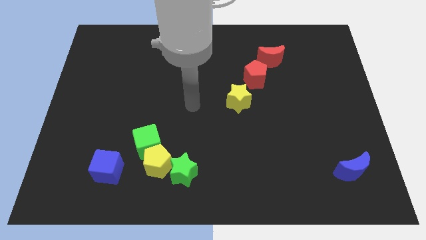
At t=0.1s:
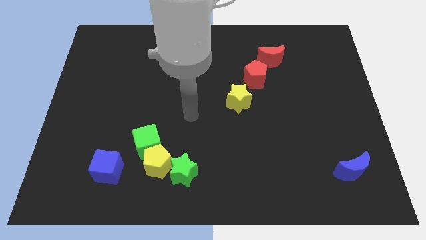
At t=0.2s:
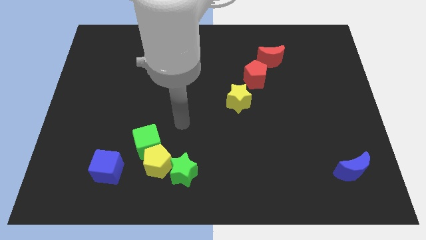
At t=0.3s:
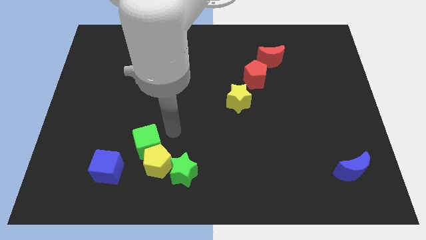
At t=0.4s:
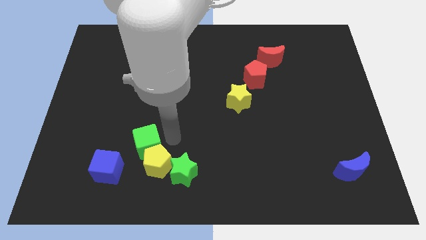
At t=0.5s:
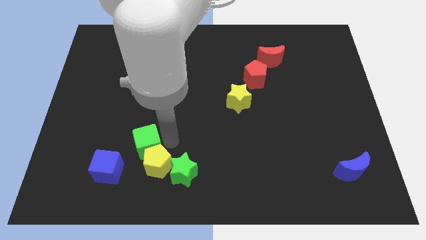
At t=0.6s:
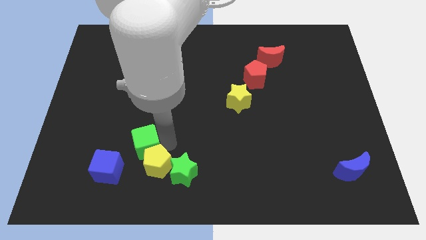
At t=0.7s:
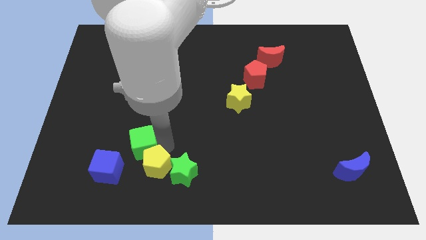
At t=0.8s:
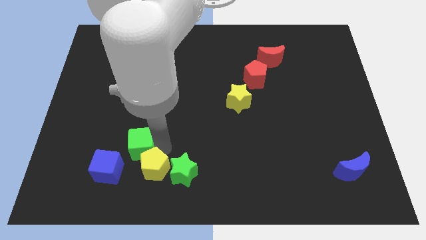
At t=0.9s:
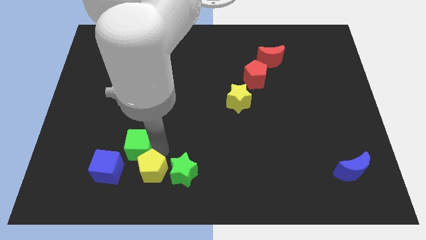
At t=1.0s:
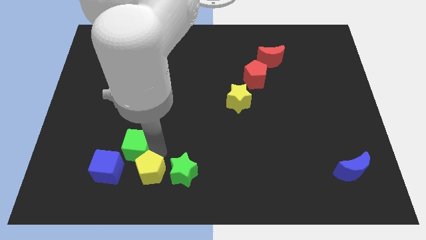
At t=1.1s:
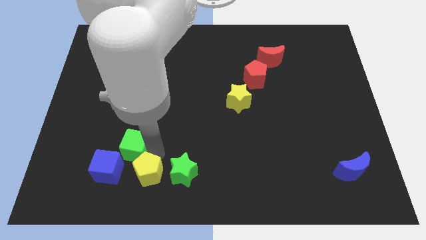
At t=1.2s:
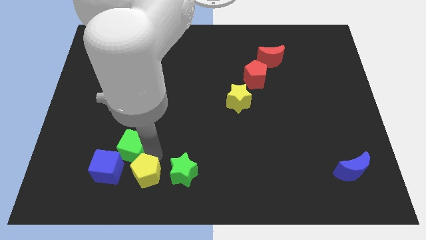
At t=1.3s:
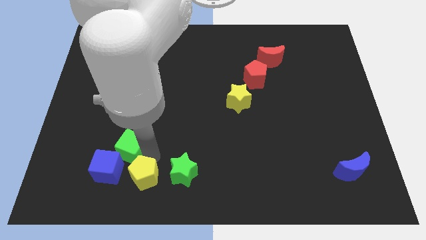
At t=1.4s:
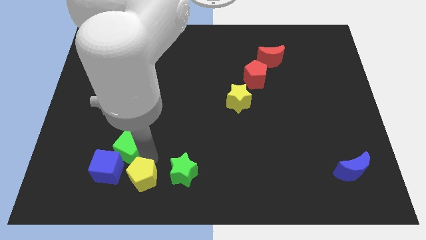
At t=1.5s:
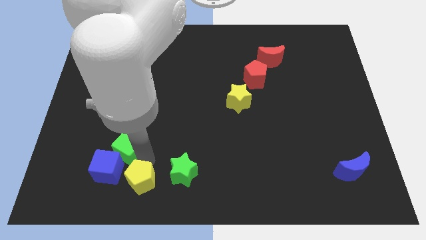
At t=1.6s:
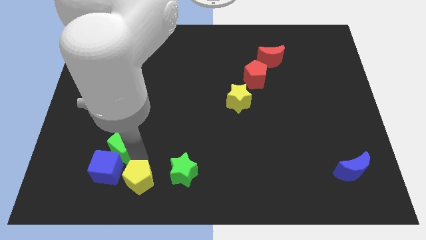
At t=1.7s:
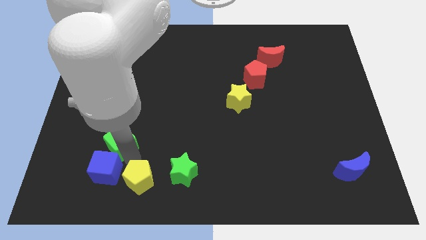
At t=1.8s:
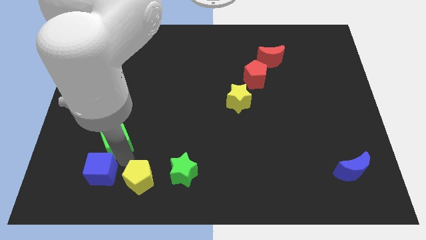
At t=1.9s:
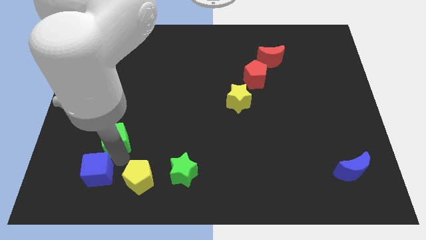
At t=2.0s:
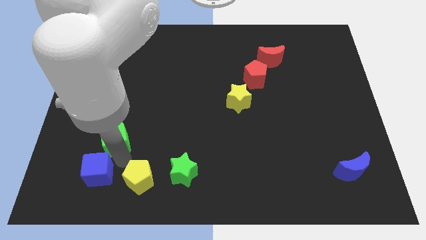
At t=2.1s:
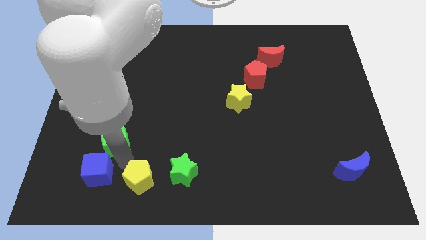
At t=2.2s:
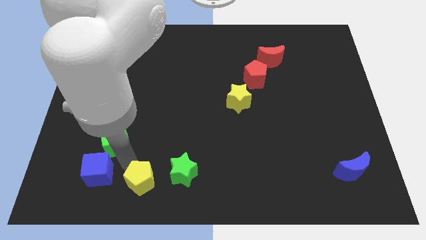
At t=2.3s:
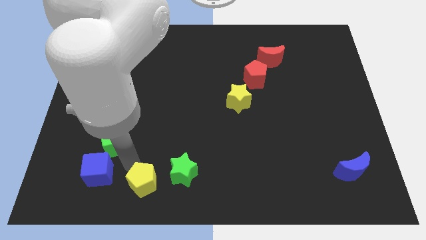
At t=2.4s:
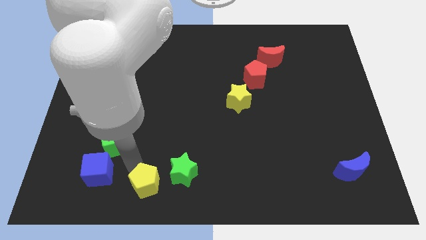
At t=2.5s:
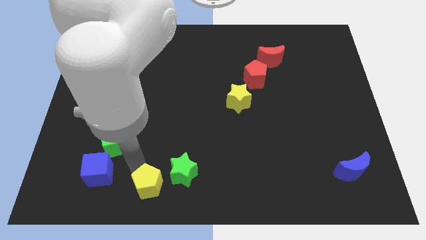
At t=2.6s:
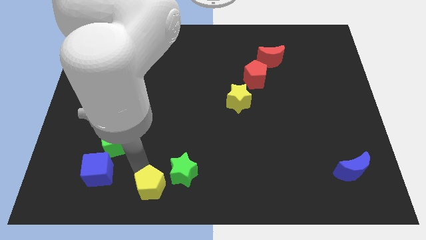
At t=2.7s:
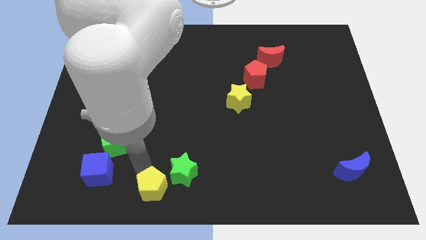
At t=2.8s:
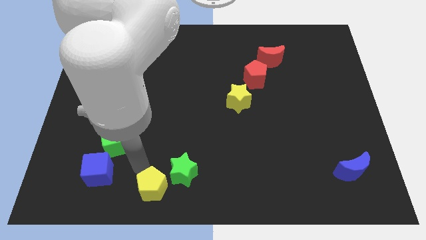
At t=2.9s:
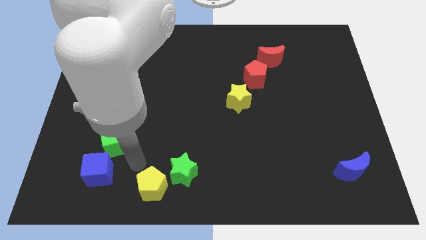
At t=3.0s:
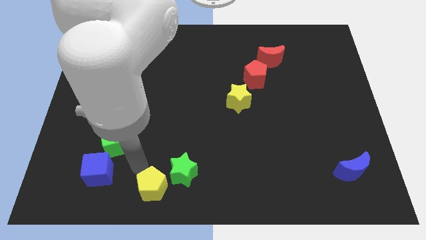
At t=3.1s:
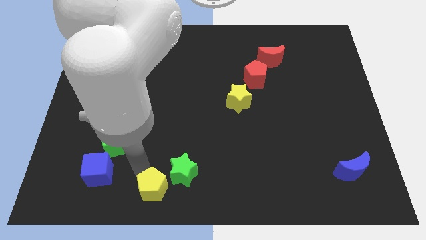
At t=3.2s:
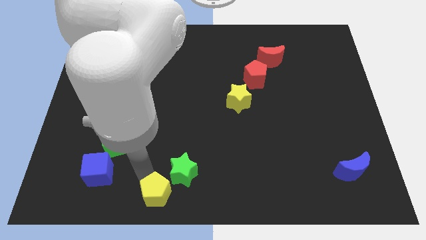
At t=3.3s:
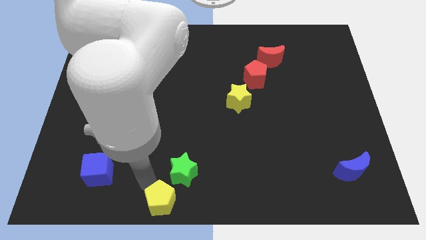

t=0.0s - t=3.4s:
separate the yellow pentagon from the group of blocks

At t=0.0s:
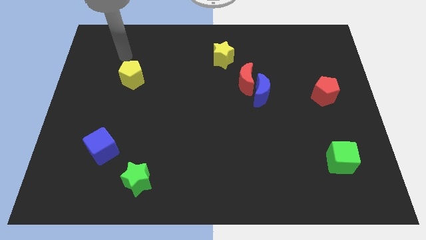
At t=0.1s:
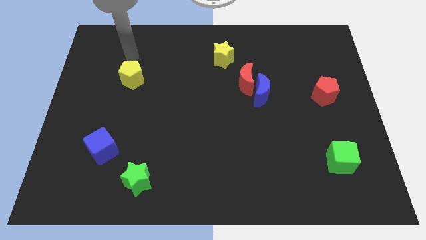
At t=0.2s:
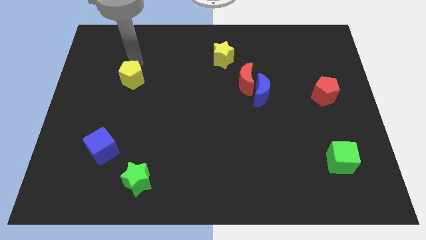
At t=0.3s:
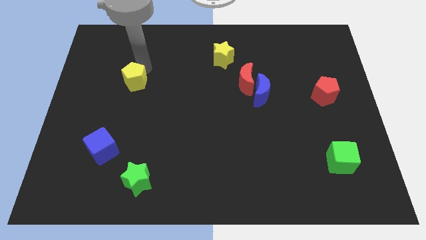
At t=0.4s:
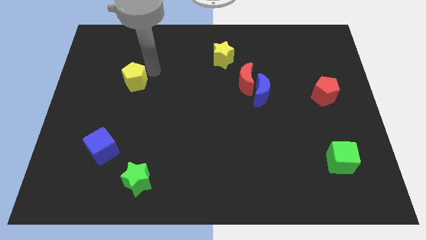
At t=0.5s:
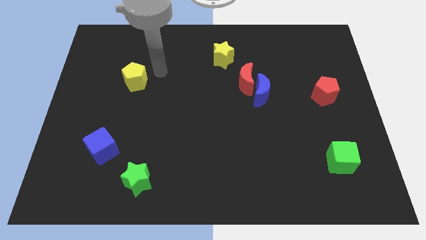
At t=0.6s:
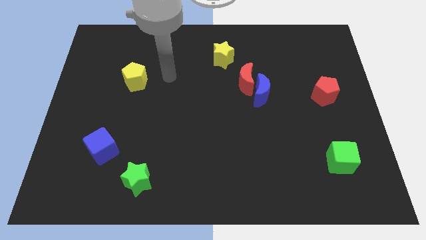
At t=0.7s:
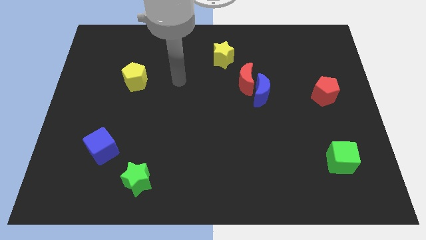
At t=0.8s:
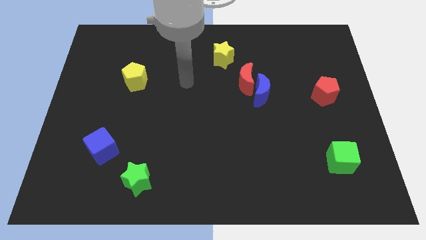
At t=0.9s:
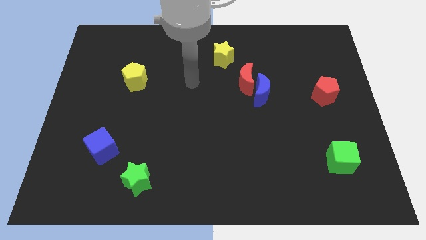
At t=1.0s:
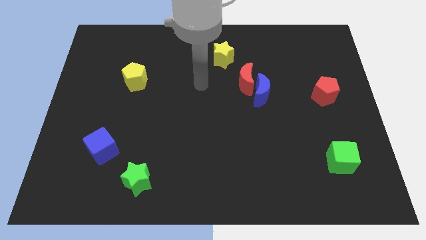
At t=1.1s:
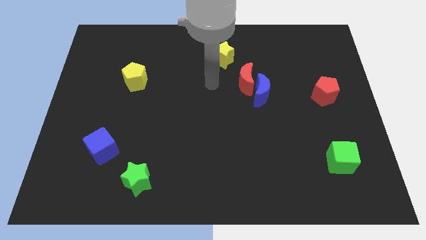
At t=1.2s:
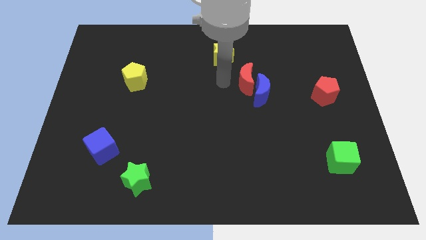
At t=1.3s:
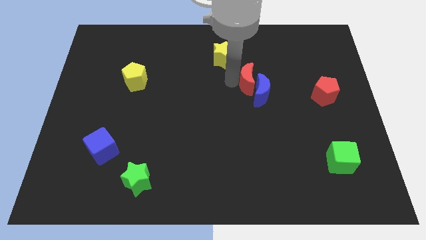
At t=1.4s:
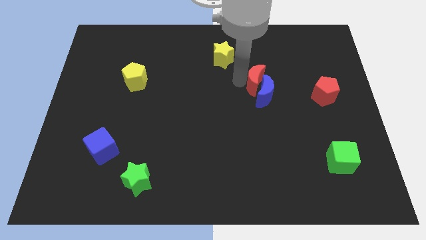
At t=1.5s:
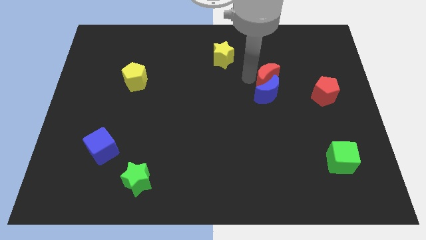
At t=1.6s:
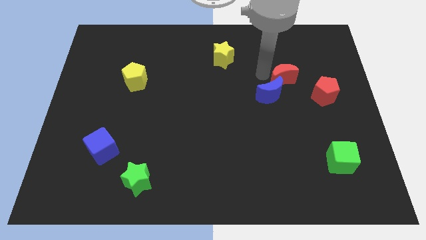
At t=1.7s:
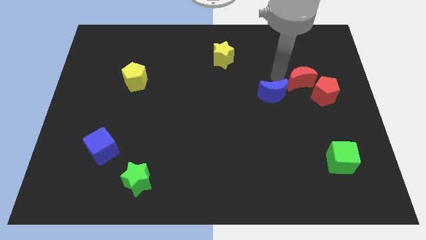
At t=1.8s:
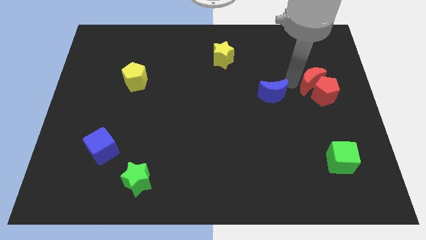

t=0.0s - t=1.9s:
pull the blue moon apart from the red moon

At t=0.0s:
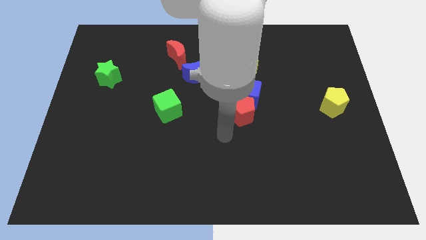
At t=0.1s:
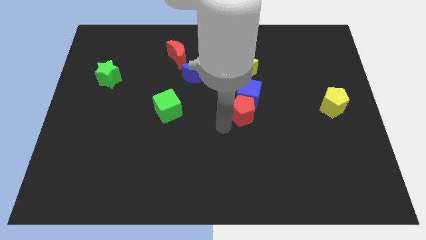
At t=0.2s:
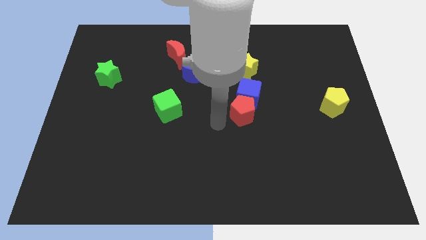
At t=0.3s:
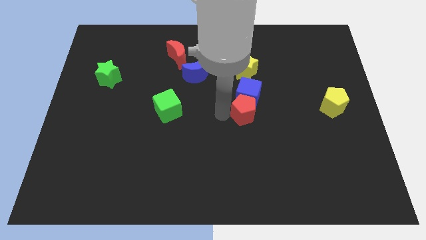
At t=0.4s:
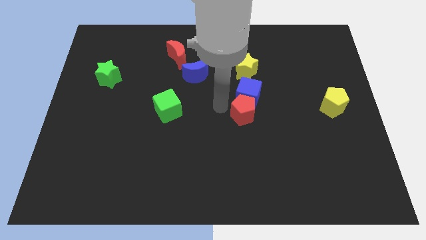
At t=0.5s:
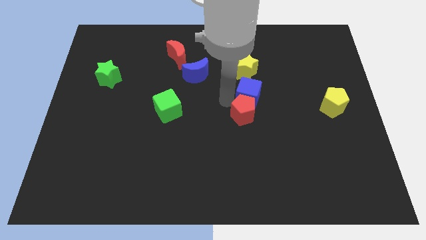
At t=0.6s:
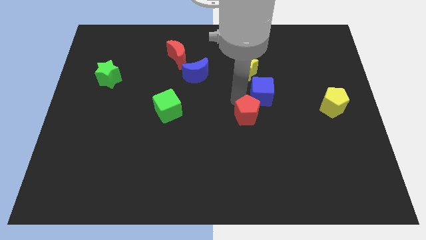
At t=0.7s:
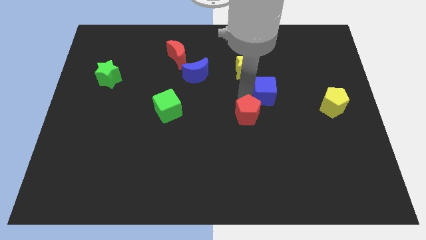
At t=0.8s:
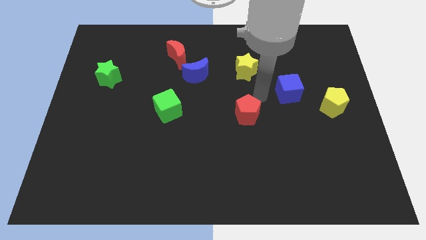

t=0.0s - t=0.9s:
pull the red pentagon apart from the blue cube

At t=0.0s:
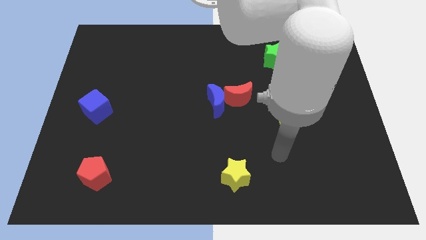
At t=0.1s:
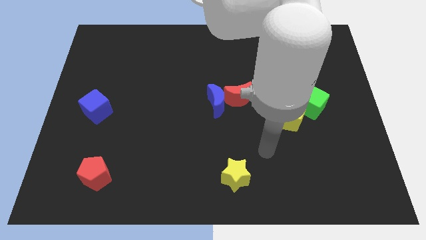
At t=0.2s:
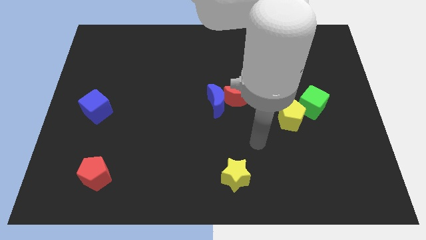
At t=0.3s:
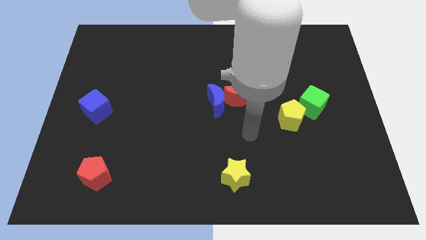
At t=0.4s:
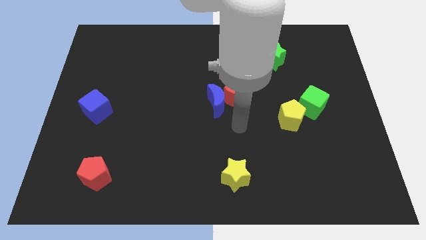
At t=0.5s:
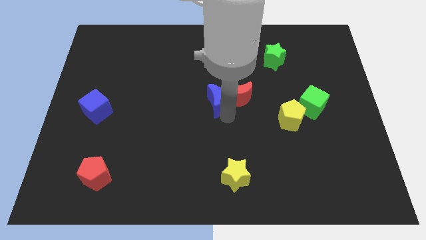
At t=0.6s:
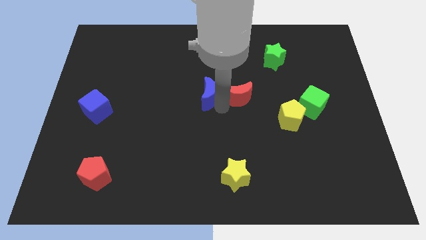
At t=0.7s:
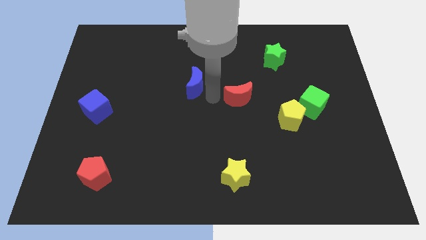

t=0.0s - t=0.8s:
move the red moon away from the blue moon

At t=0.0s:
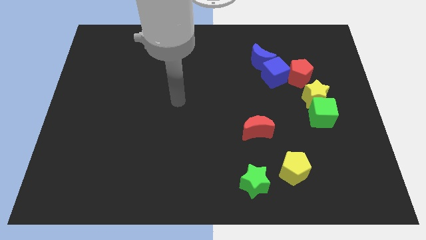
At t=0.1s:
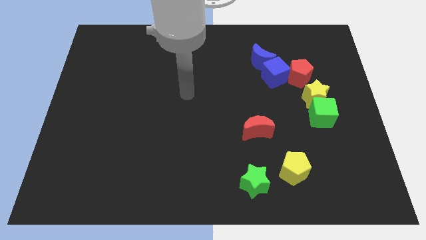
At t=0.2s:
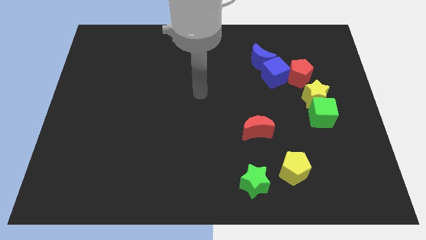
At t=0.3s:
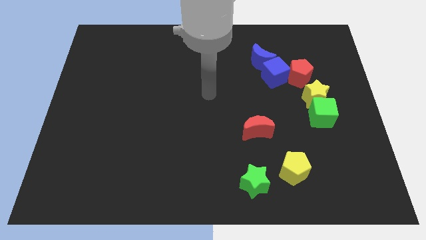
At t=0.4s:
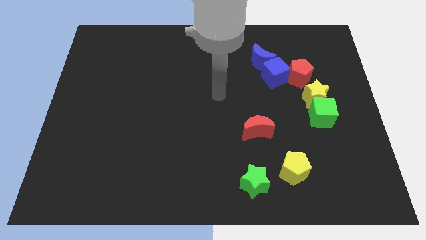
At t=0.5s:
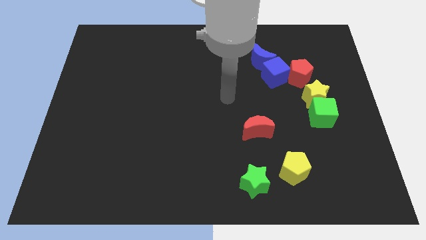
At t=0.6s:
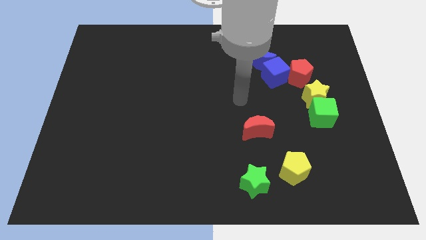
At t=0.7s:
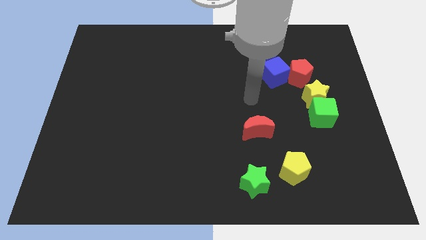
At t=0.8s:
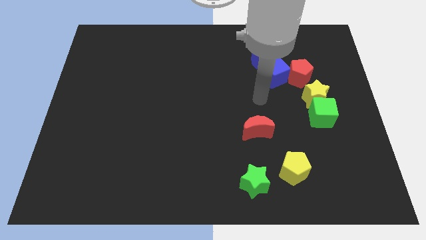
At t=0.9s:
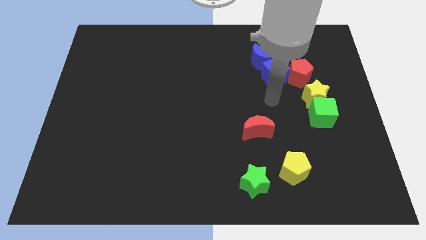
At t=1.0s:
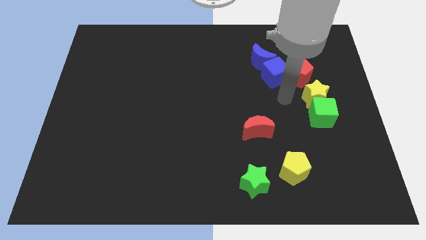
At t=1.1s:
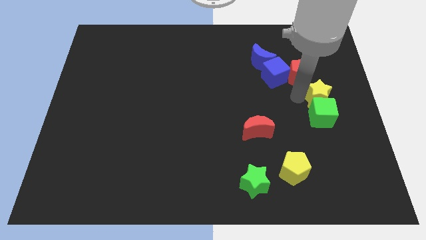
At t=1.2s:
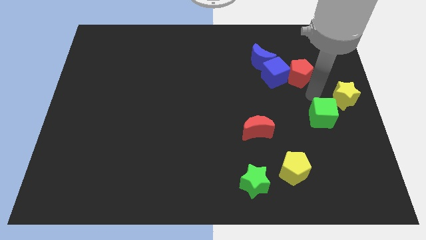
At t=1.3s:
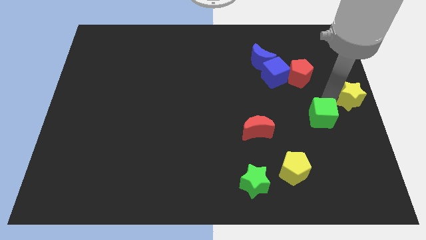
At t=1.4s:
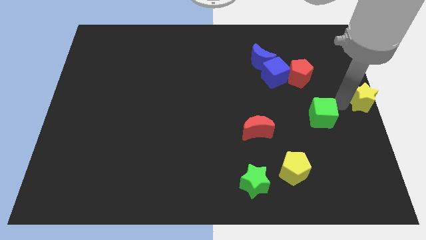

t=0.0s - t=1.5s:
move the green cube away from the yellow star

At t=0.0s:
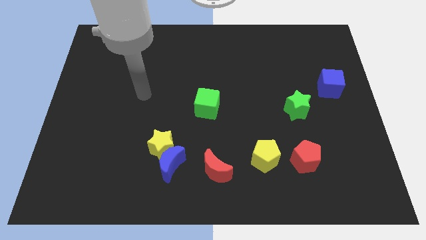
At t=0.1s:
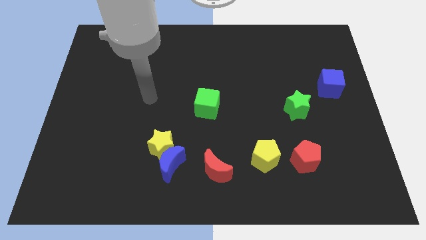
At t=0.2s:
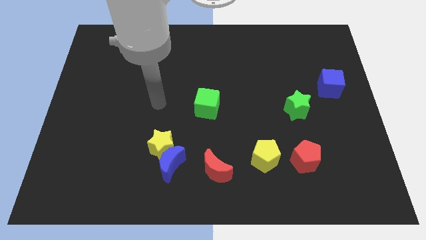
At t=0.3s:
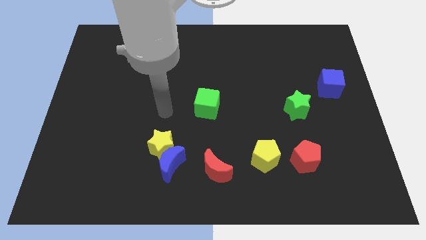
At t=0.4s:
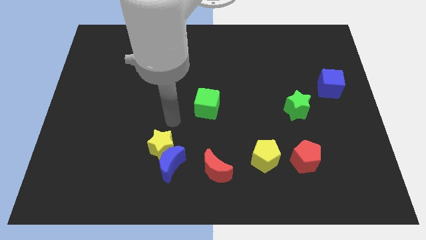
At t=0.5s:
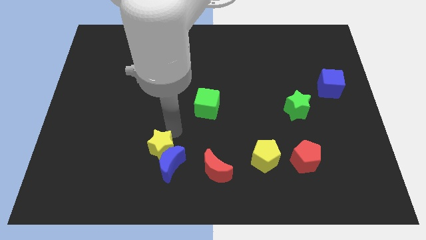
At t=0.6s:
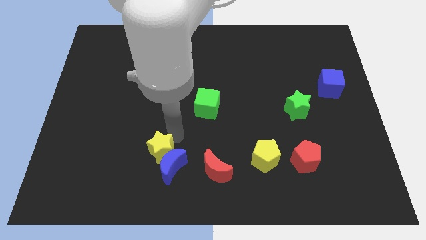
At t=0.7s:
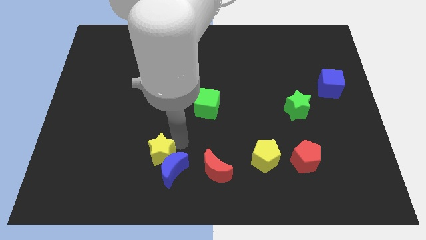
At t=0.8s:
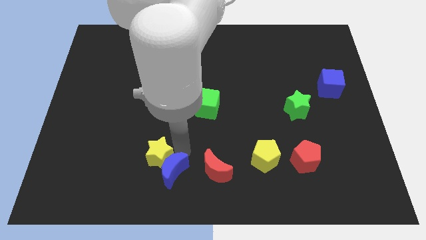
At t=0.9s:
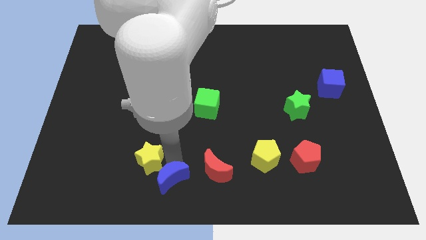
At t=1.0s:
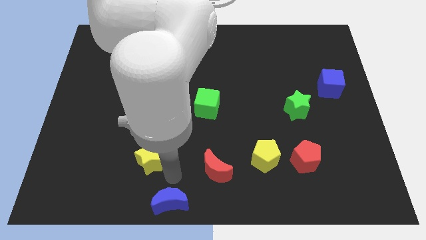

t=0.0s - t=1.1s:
move the yellow star away from the blue moon
